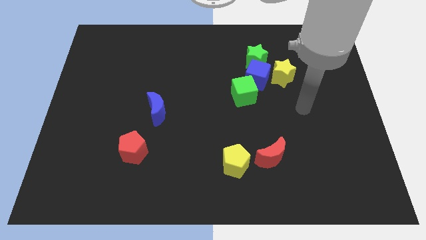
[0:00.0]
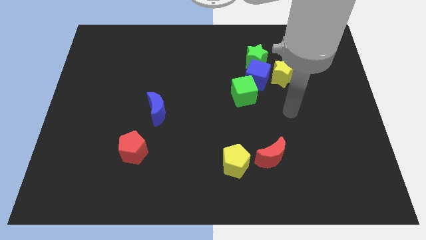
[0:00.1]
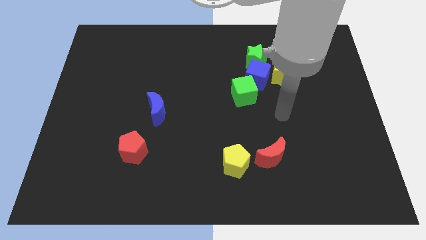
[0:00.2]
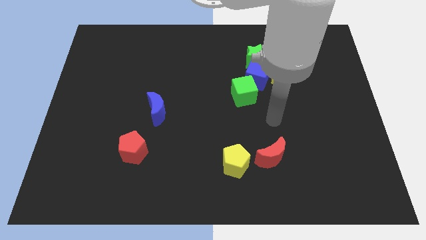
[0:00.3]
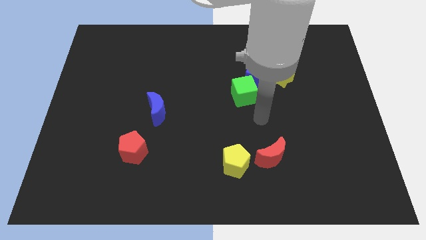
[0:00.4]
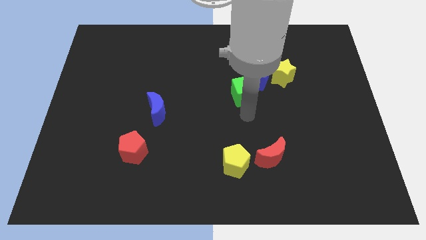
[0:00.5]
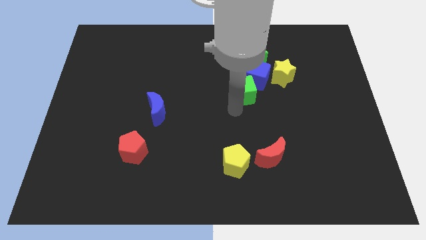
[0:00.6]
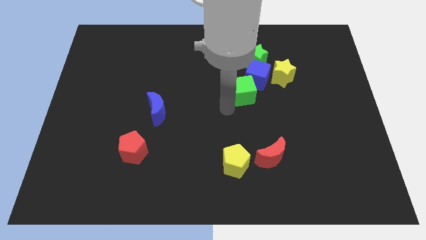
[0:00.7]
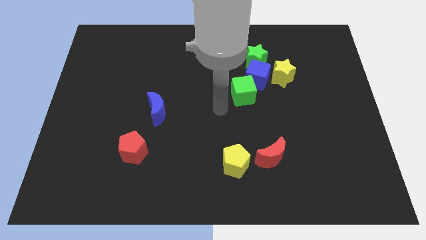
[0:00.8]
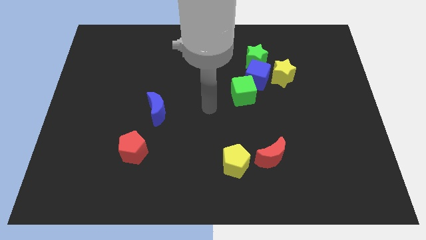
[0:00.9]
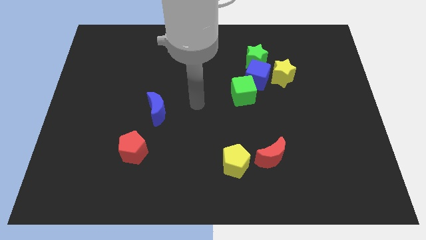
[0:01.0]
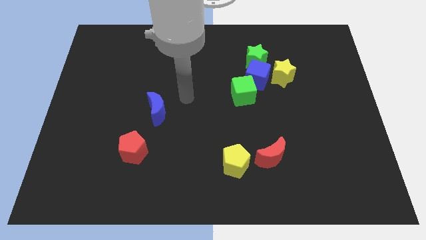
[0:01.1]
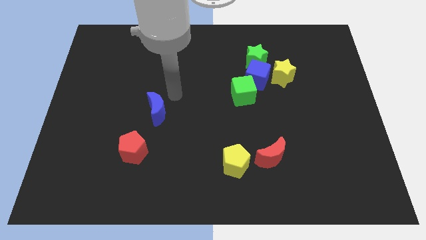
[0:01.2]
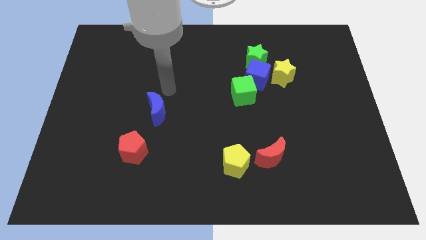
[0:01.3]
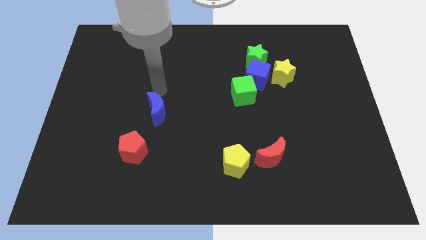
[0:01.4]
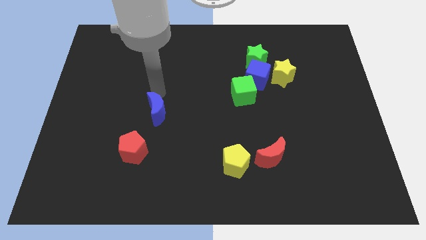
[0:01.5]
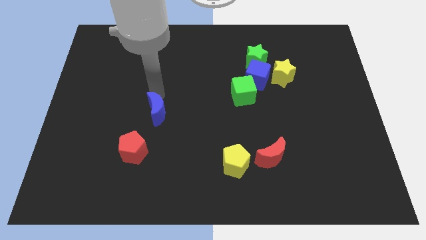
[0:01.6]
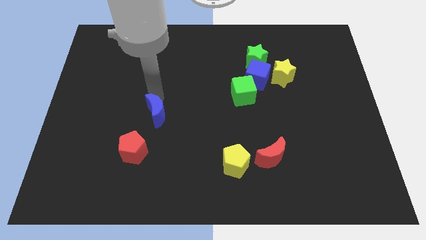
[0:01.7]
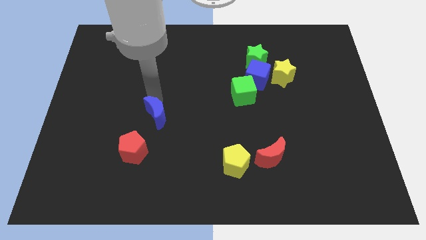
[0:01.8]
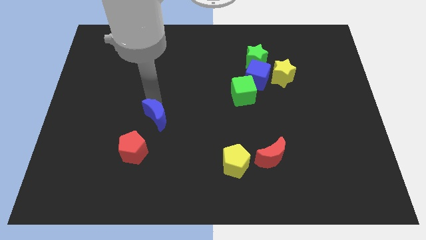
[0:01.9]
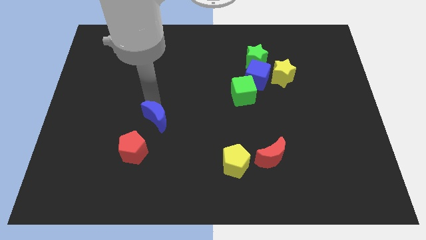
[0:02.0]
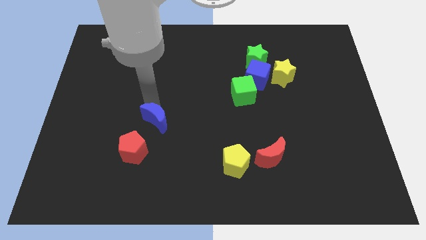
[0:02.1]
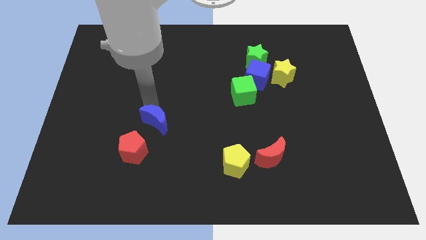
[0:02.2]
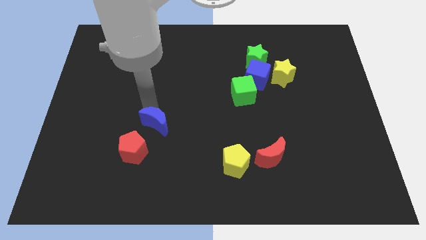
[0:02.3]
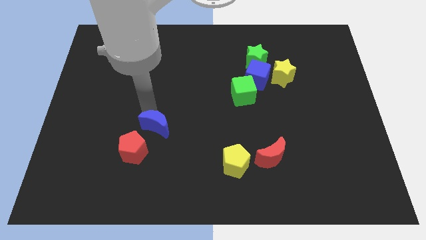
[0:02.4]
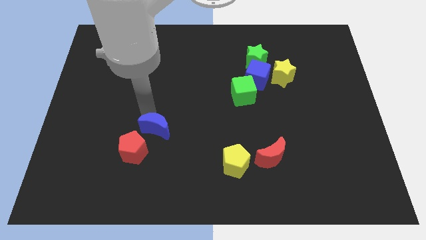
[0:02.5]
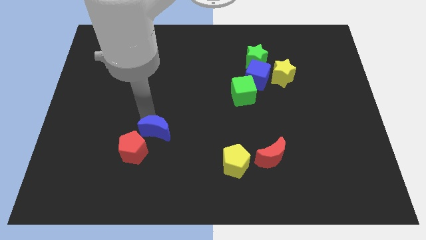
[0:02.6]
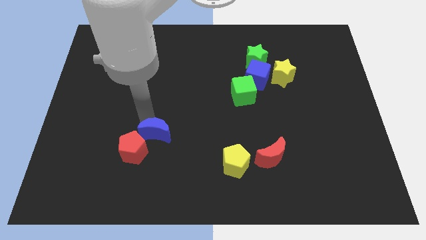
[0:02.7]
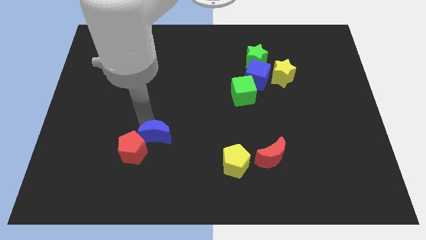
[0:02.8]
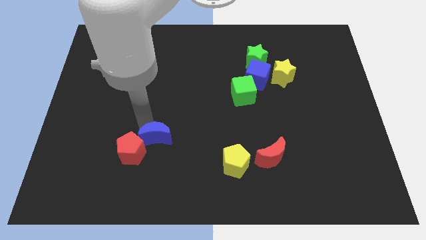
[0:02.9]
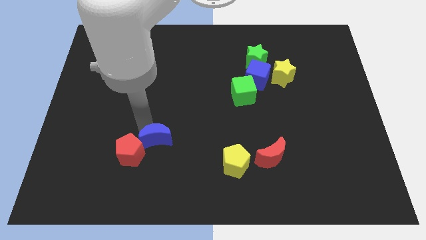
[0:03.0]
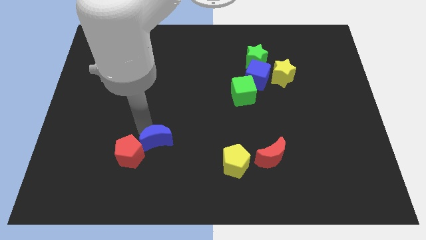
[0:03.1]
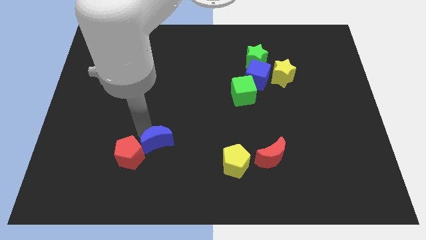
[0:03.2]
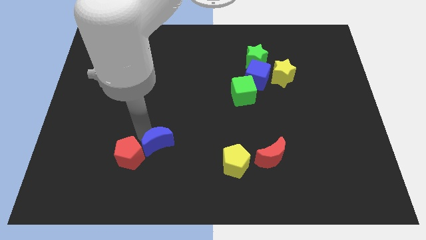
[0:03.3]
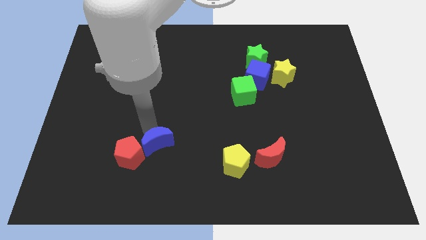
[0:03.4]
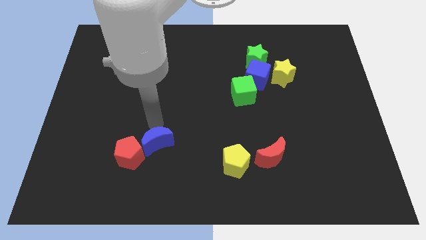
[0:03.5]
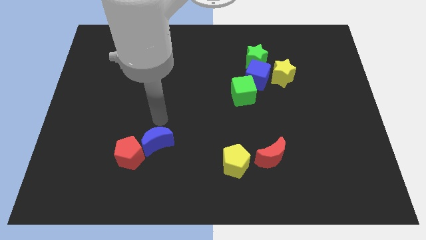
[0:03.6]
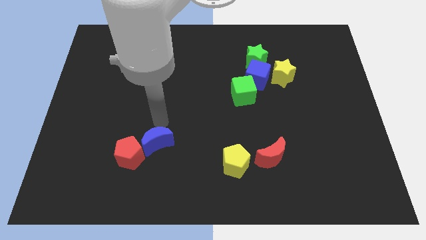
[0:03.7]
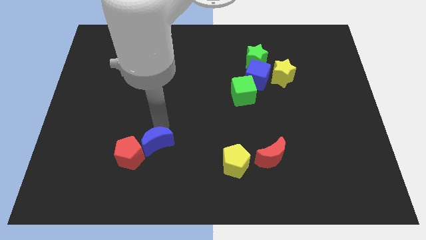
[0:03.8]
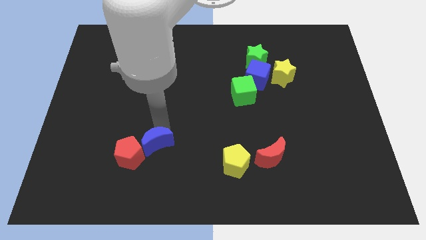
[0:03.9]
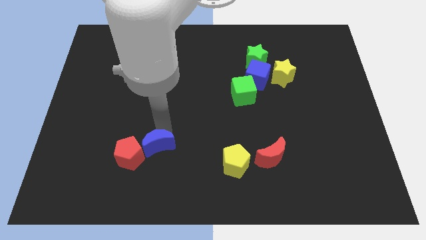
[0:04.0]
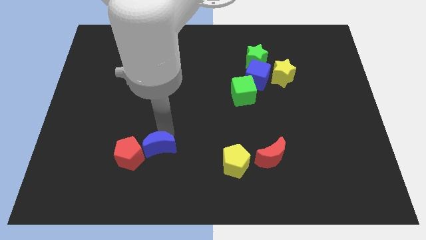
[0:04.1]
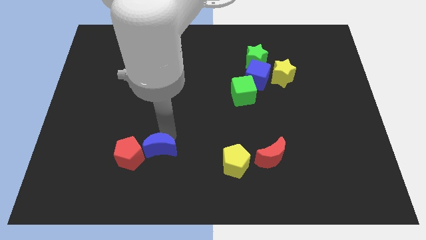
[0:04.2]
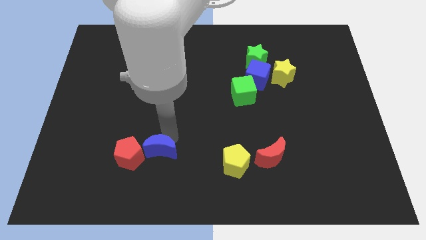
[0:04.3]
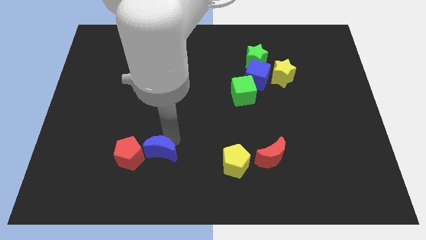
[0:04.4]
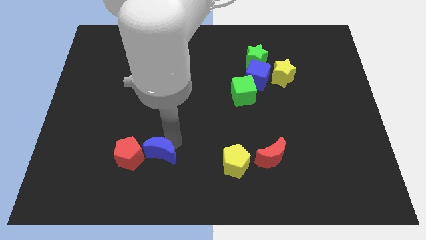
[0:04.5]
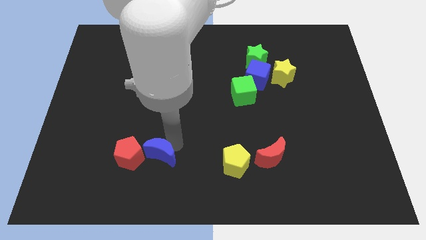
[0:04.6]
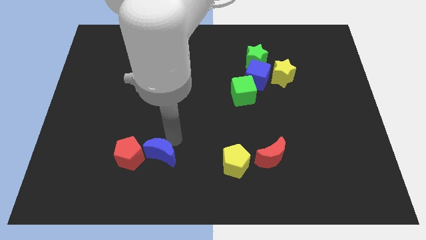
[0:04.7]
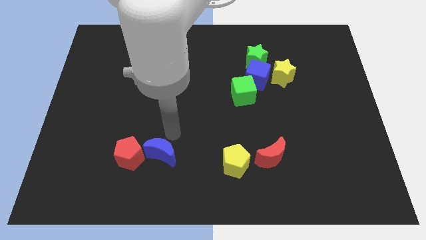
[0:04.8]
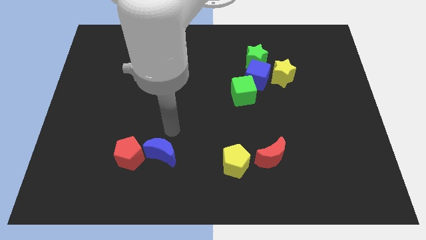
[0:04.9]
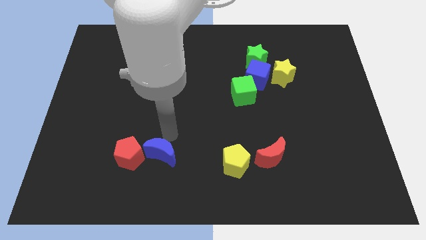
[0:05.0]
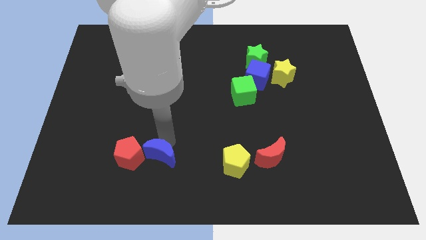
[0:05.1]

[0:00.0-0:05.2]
push the blue moon to the bottom right of the red pentagon

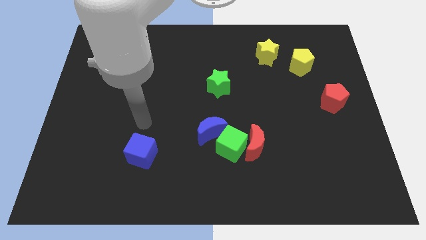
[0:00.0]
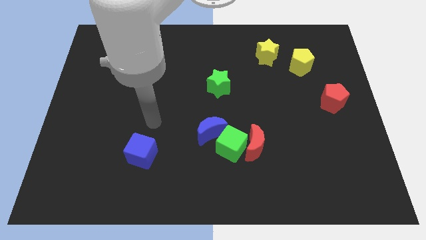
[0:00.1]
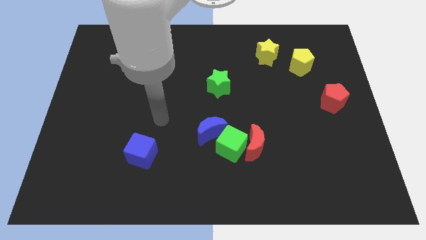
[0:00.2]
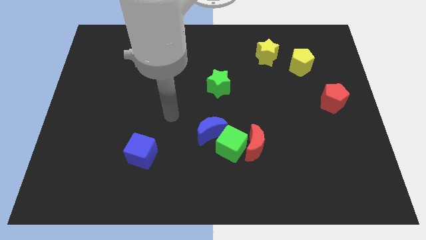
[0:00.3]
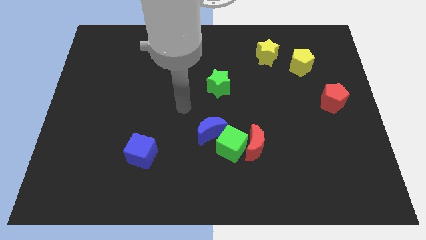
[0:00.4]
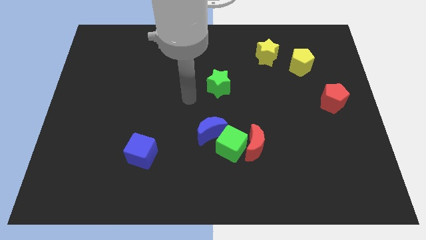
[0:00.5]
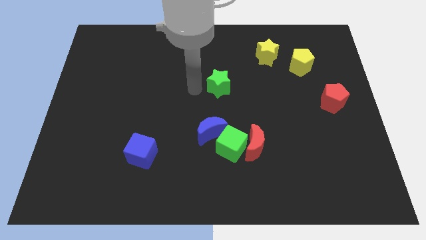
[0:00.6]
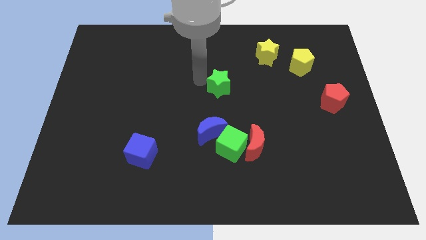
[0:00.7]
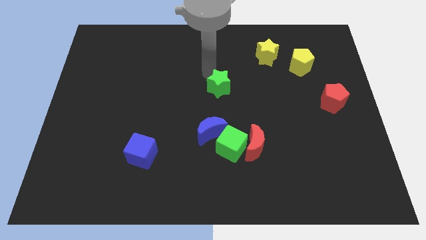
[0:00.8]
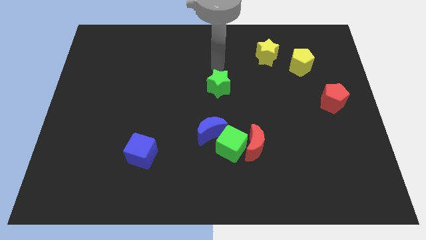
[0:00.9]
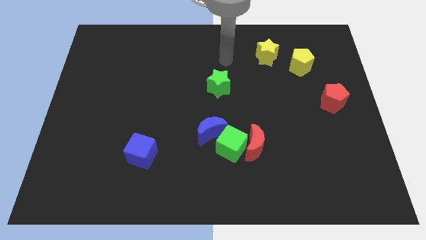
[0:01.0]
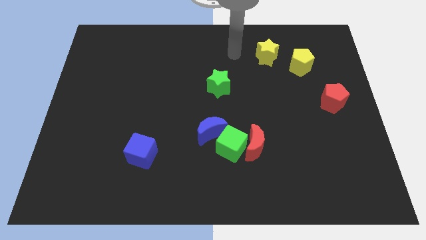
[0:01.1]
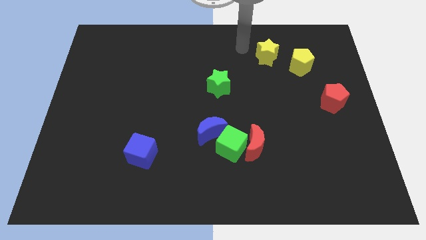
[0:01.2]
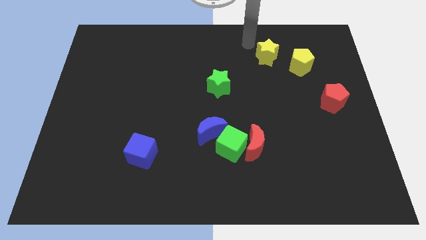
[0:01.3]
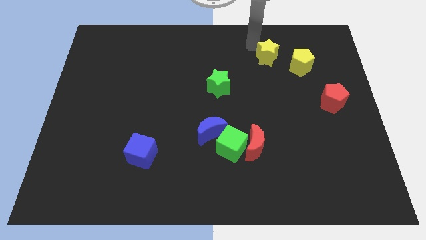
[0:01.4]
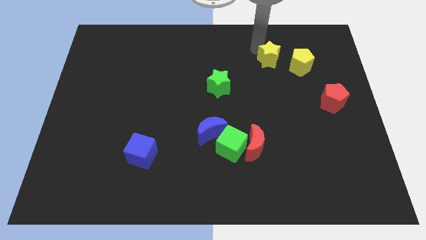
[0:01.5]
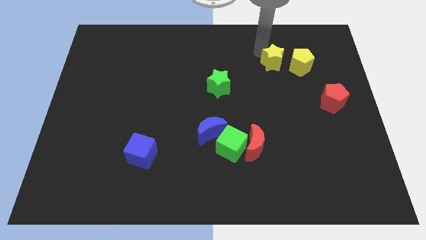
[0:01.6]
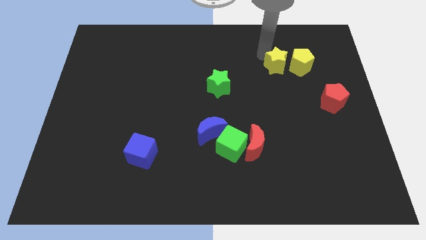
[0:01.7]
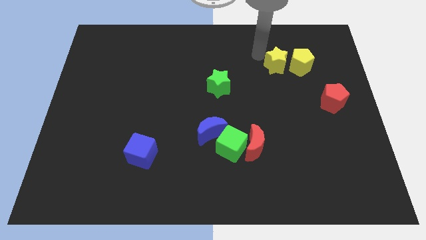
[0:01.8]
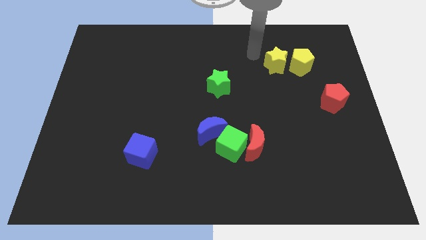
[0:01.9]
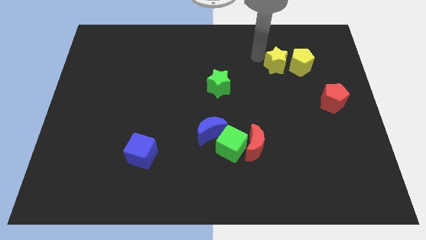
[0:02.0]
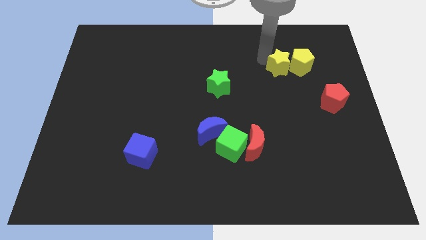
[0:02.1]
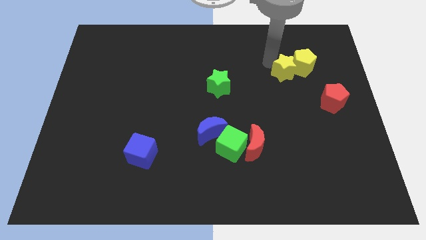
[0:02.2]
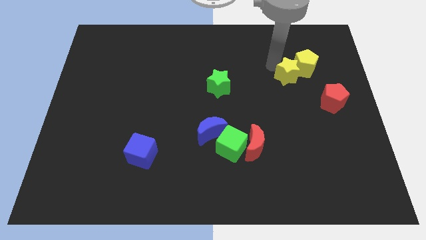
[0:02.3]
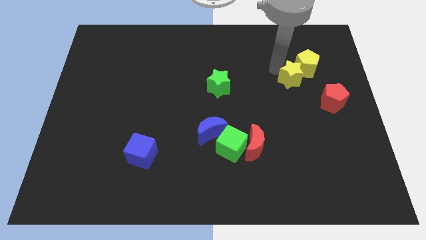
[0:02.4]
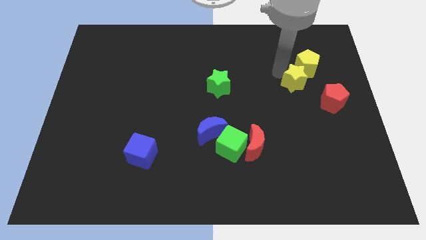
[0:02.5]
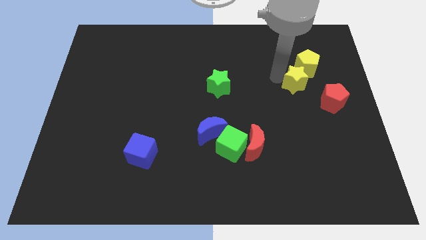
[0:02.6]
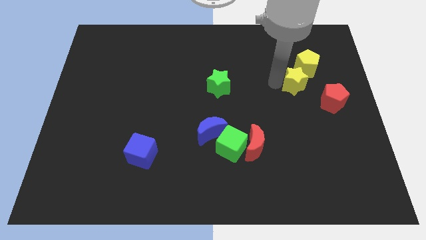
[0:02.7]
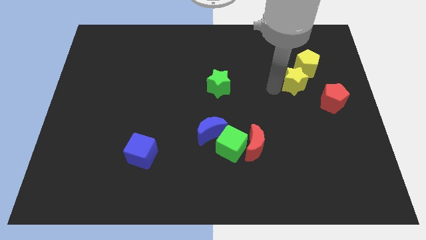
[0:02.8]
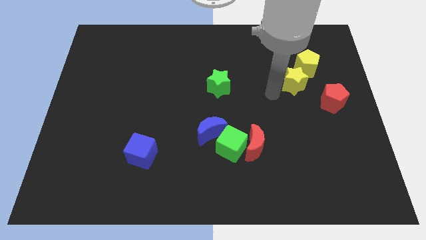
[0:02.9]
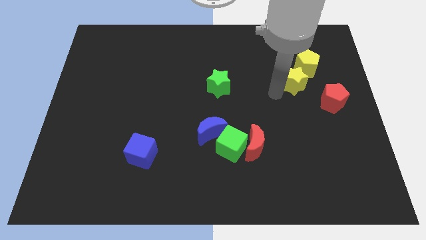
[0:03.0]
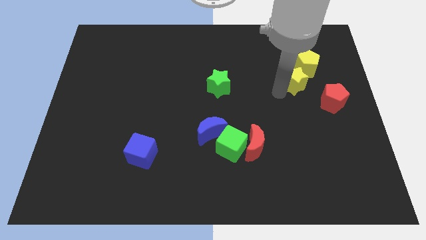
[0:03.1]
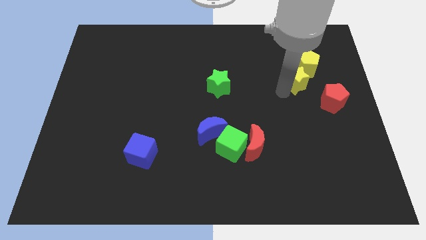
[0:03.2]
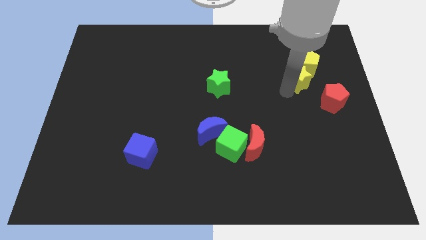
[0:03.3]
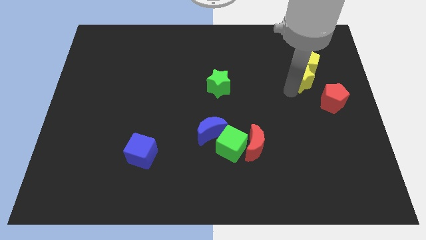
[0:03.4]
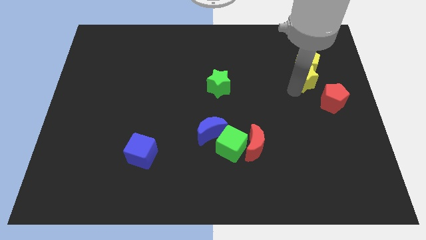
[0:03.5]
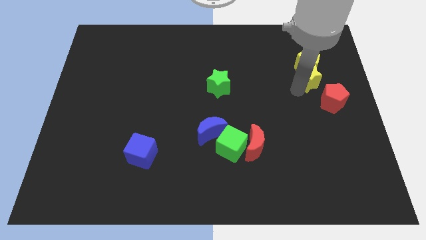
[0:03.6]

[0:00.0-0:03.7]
push the yellow star above the red pentagon
